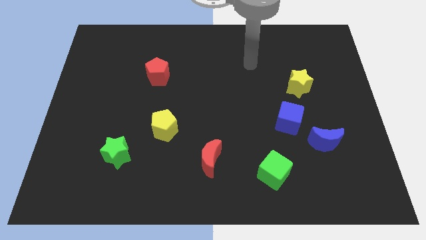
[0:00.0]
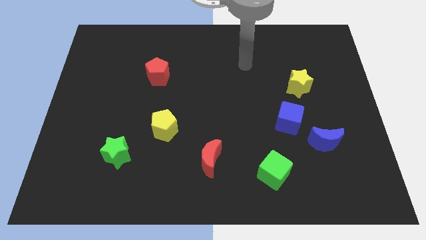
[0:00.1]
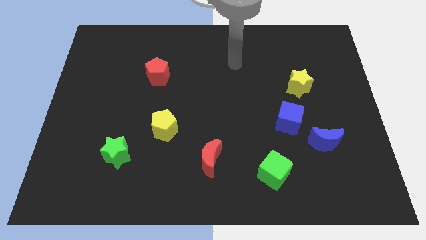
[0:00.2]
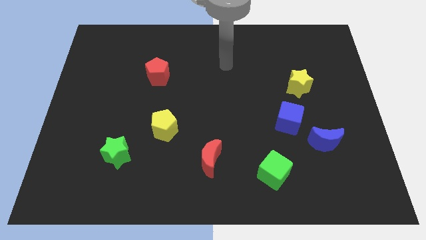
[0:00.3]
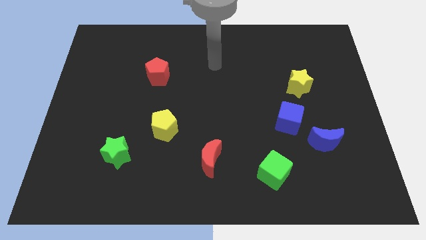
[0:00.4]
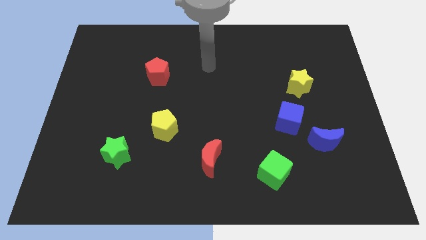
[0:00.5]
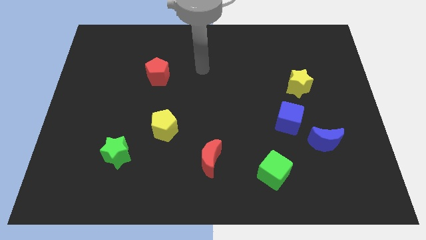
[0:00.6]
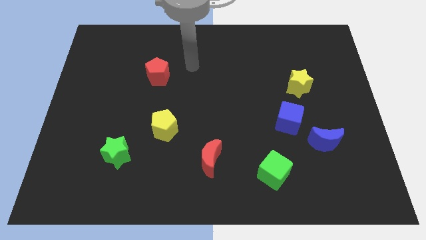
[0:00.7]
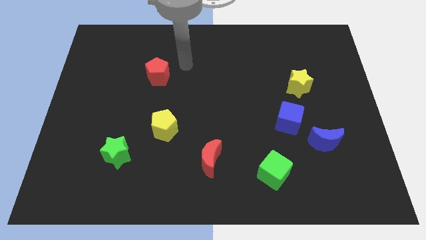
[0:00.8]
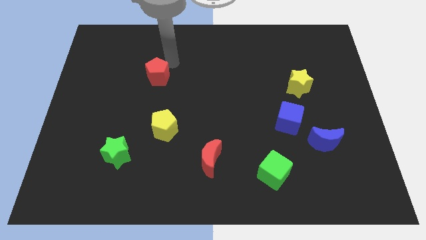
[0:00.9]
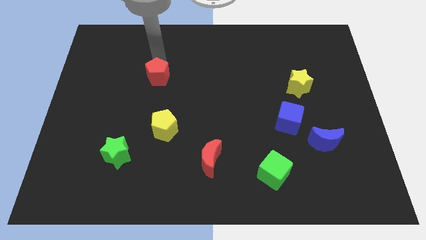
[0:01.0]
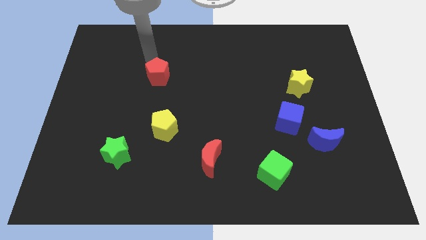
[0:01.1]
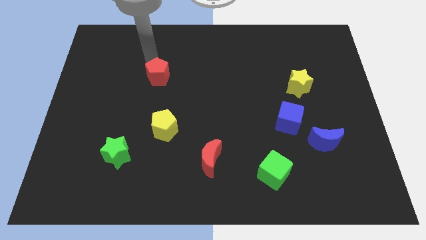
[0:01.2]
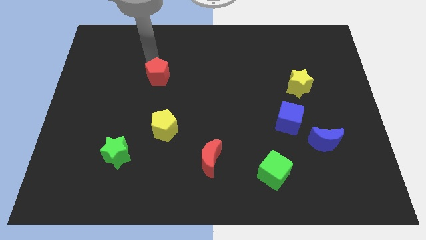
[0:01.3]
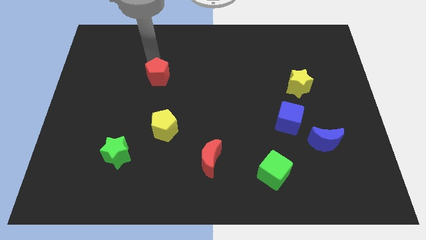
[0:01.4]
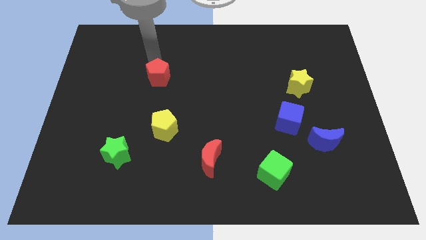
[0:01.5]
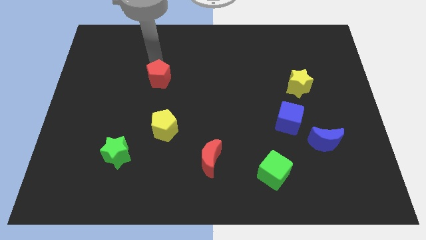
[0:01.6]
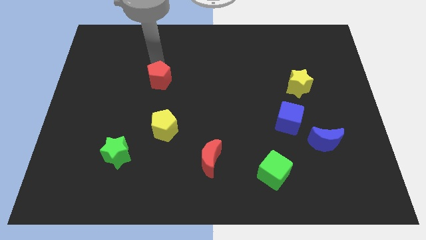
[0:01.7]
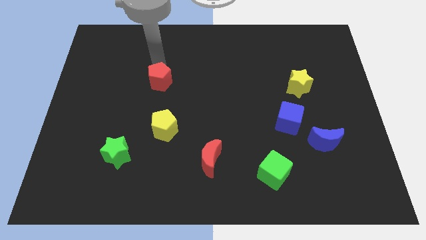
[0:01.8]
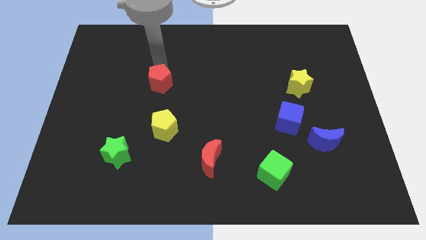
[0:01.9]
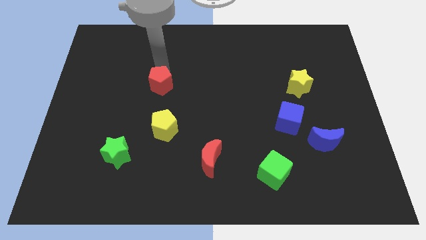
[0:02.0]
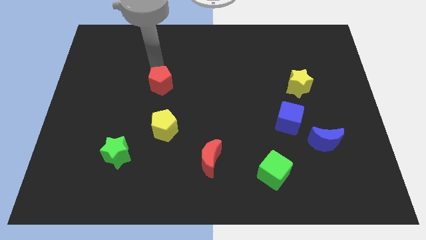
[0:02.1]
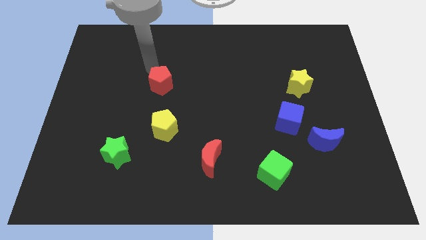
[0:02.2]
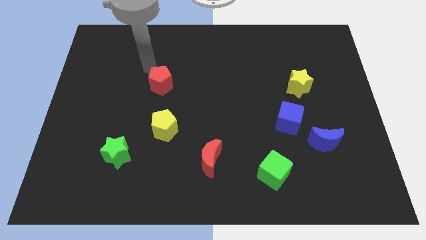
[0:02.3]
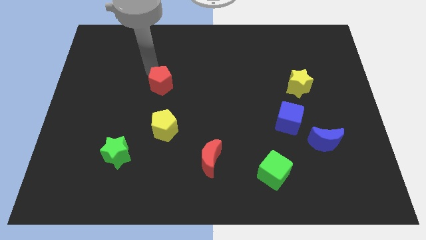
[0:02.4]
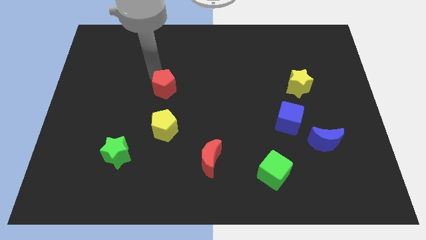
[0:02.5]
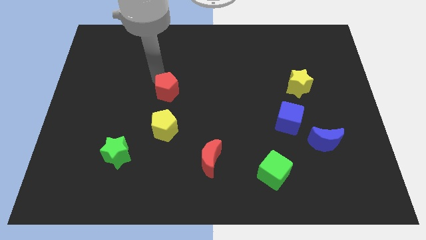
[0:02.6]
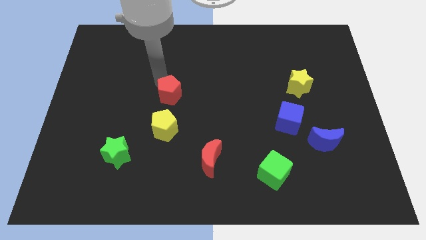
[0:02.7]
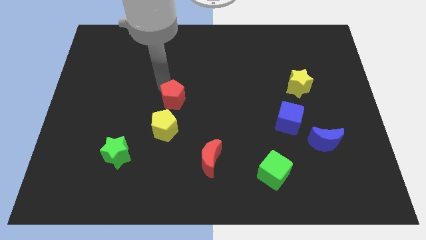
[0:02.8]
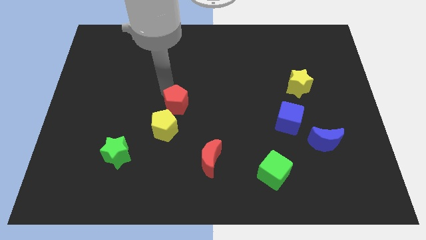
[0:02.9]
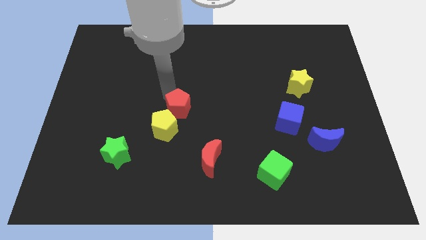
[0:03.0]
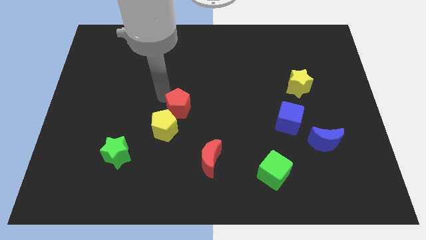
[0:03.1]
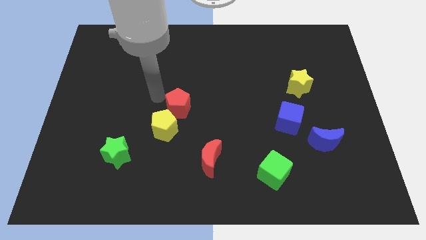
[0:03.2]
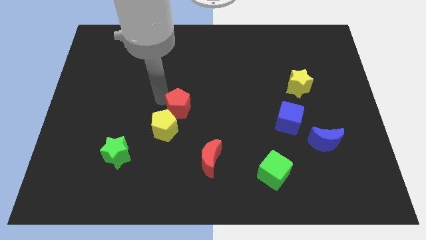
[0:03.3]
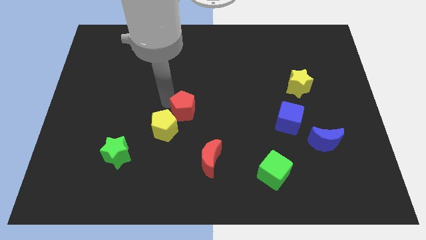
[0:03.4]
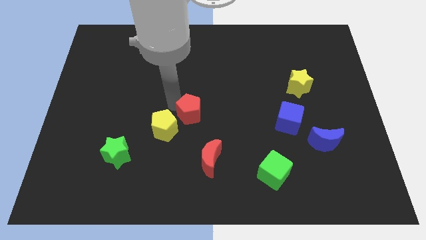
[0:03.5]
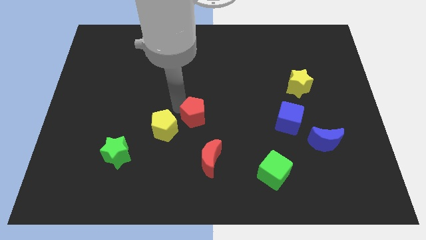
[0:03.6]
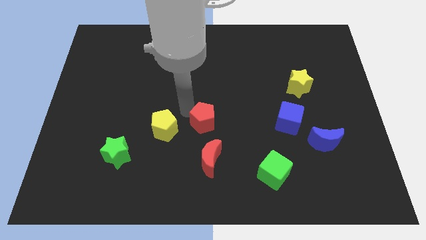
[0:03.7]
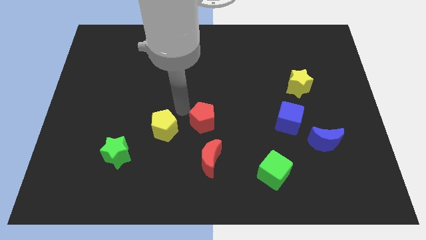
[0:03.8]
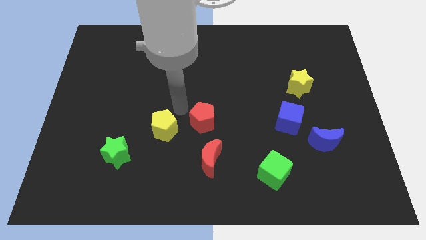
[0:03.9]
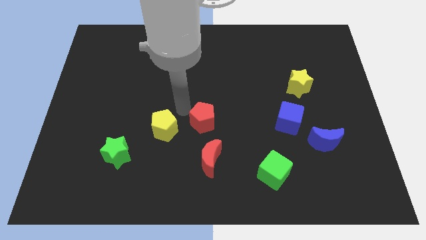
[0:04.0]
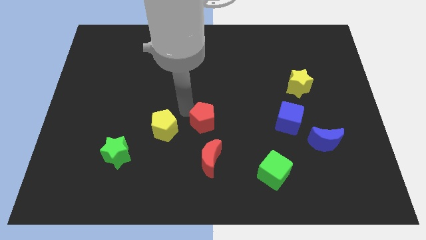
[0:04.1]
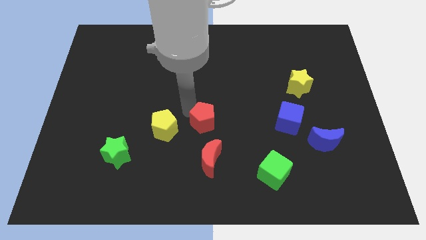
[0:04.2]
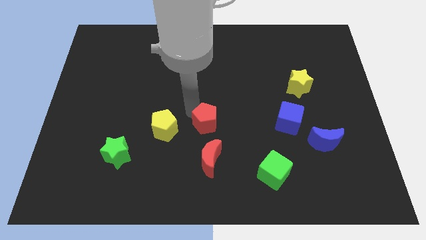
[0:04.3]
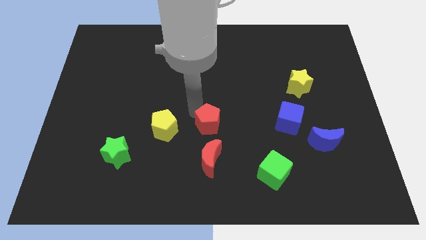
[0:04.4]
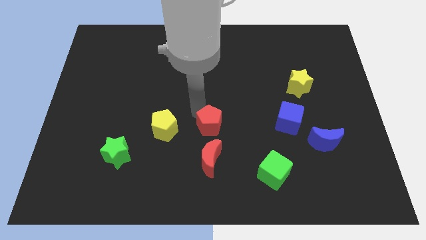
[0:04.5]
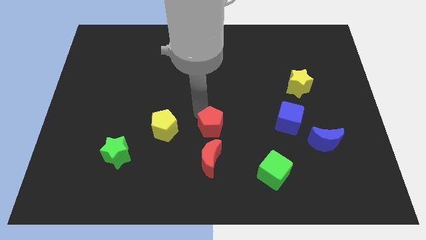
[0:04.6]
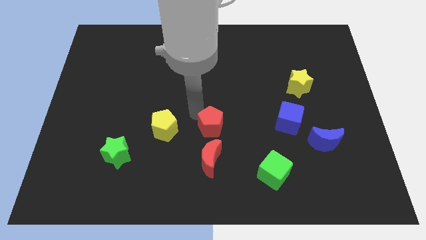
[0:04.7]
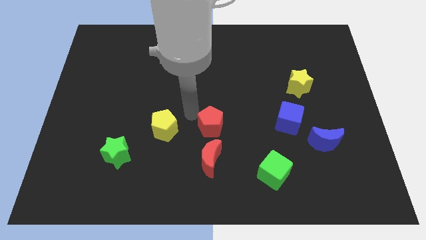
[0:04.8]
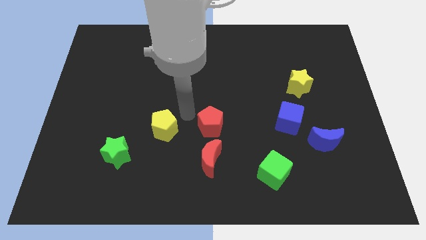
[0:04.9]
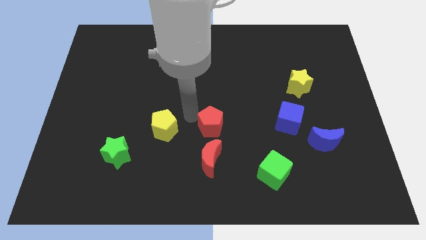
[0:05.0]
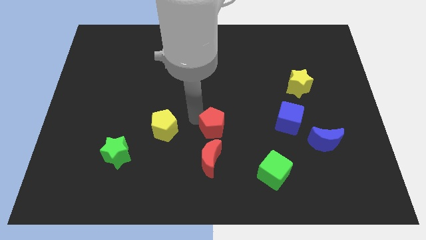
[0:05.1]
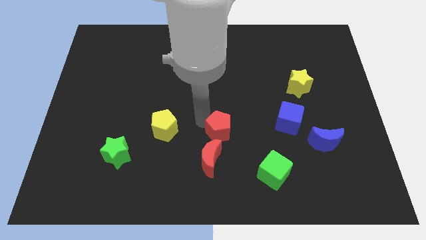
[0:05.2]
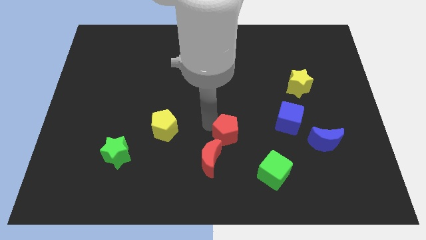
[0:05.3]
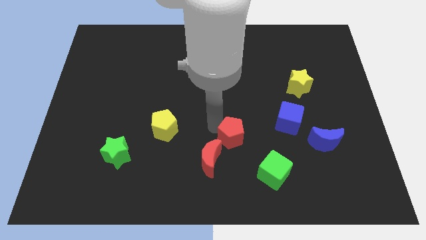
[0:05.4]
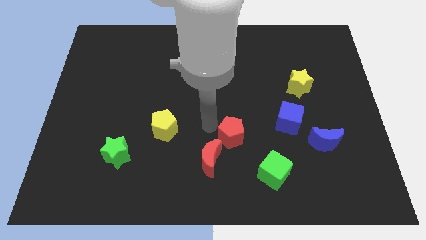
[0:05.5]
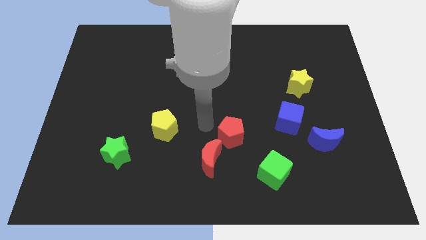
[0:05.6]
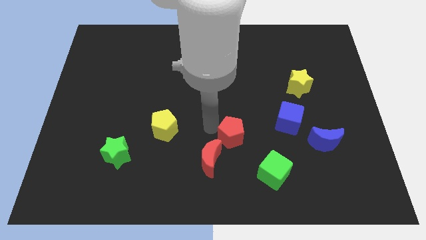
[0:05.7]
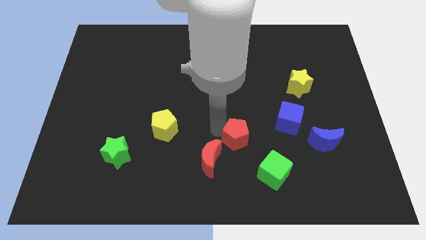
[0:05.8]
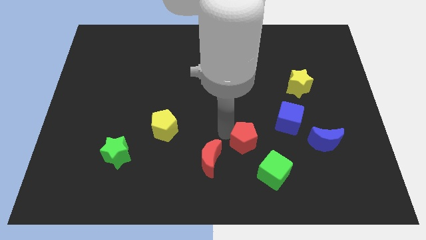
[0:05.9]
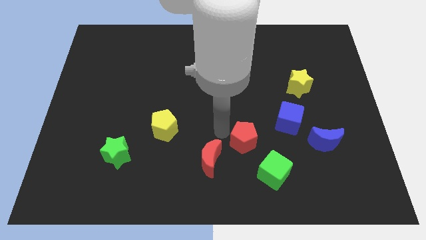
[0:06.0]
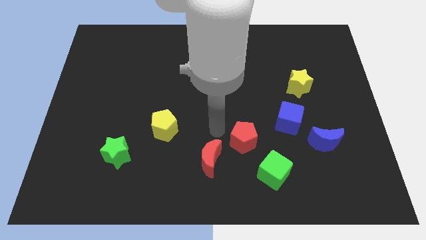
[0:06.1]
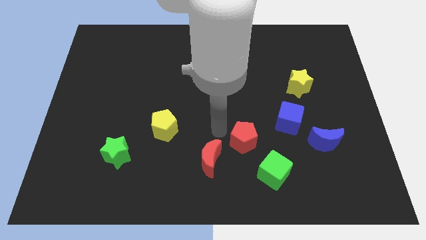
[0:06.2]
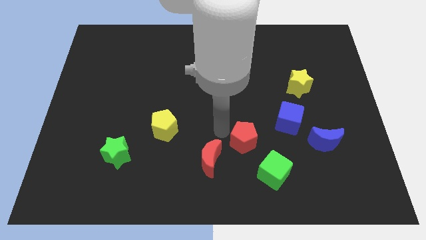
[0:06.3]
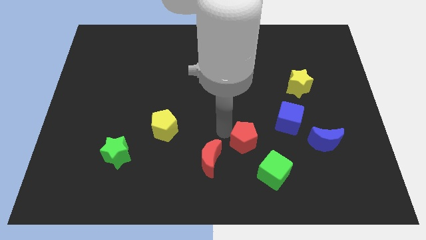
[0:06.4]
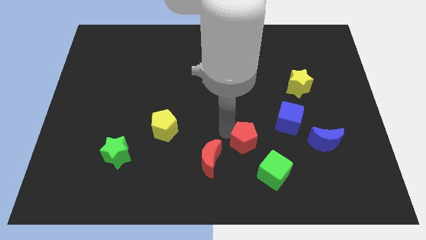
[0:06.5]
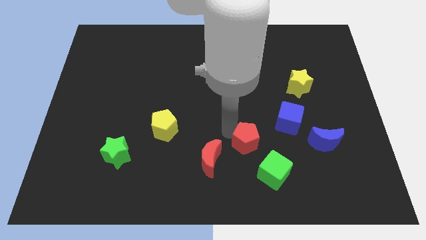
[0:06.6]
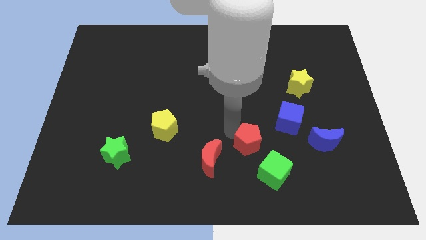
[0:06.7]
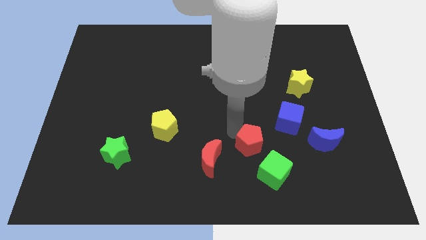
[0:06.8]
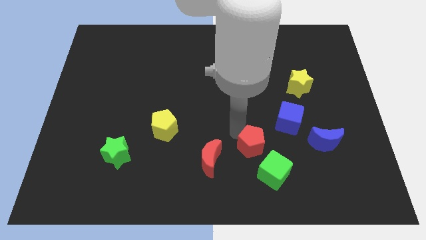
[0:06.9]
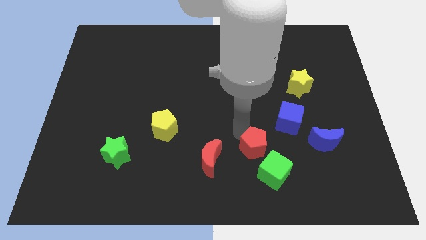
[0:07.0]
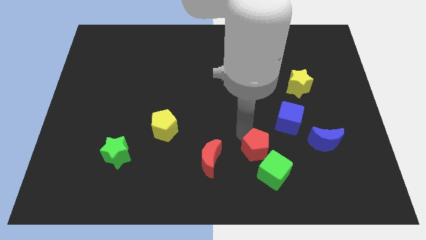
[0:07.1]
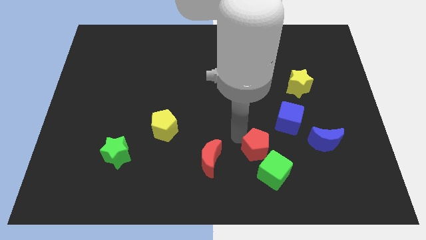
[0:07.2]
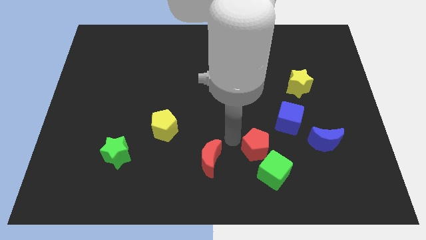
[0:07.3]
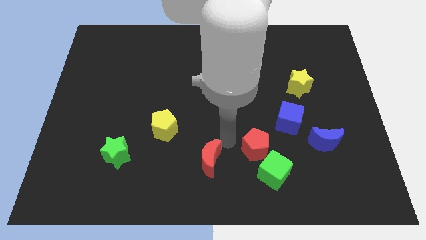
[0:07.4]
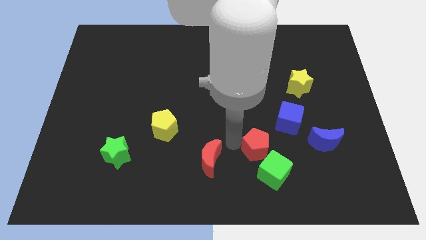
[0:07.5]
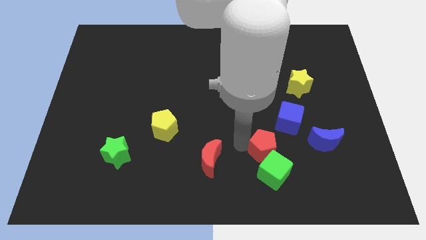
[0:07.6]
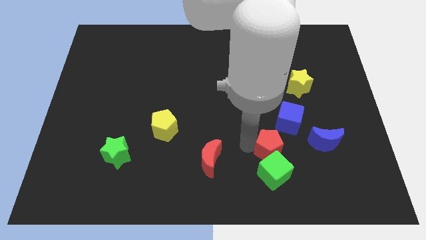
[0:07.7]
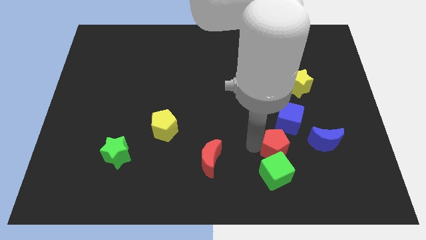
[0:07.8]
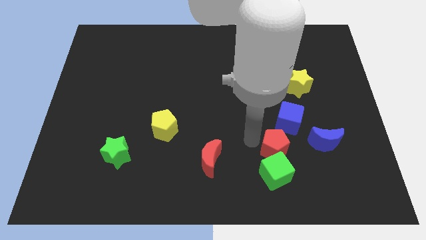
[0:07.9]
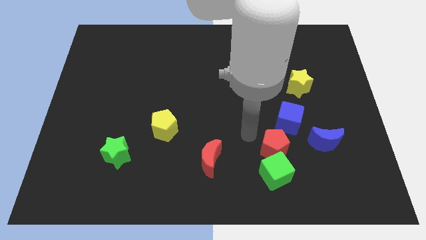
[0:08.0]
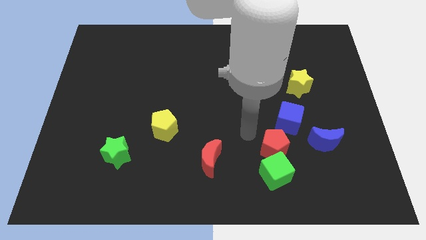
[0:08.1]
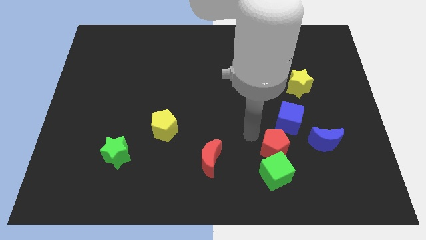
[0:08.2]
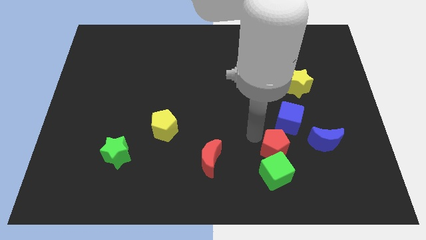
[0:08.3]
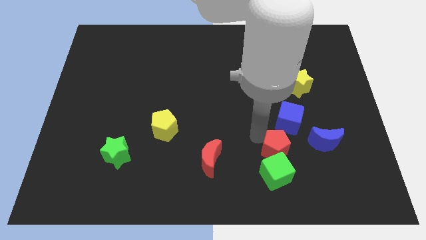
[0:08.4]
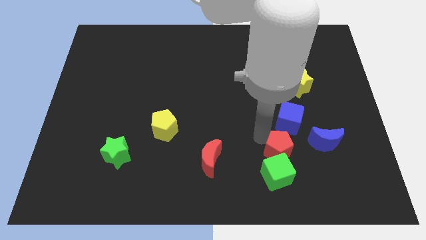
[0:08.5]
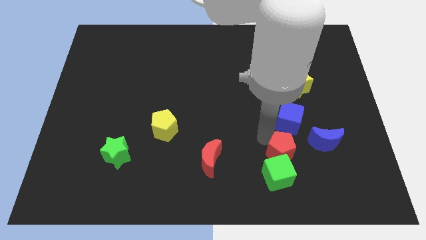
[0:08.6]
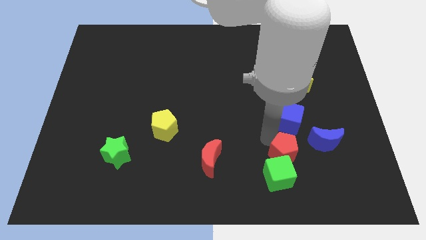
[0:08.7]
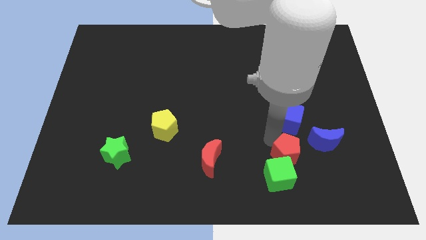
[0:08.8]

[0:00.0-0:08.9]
move the red pentagon diagonally down and to the left of the blue moon
